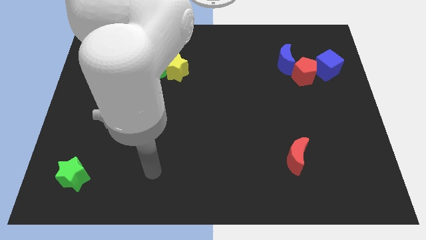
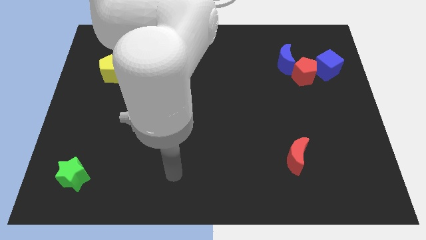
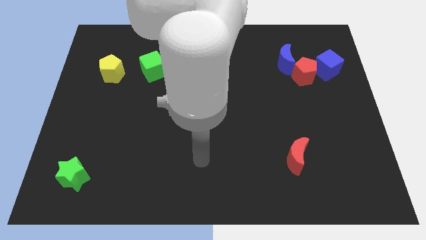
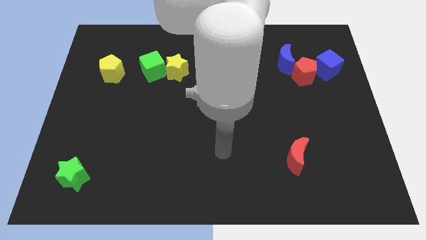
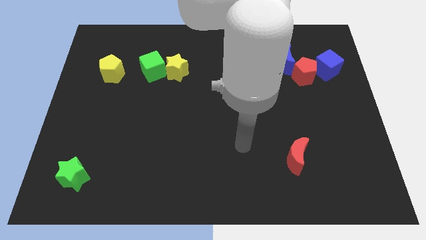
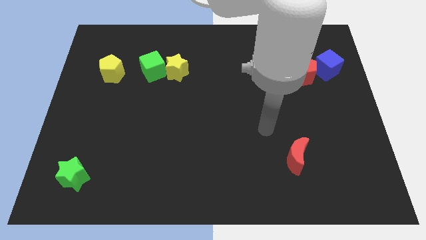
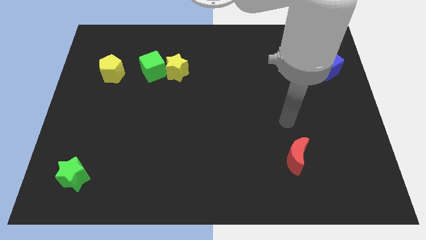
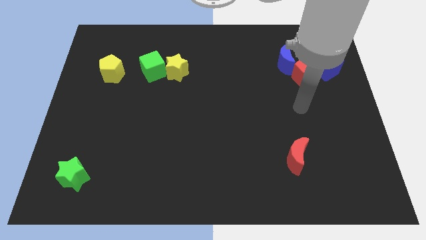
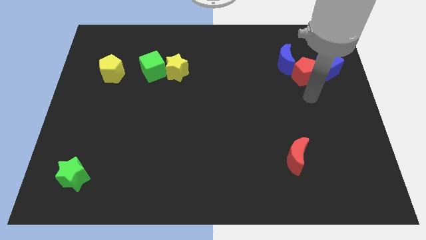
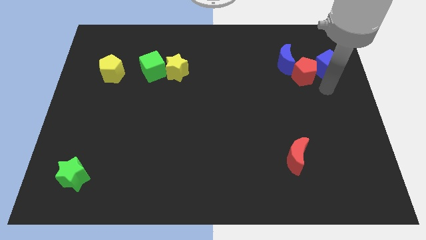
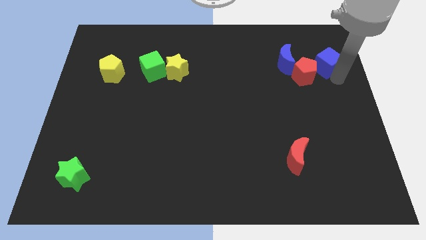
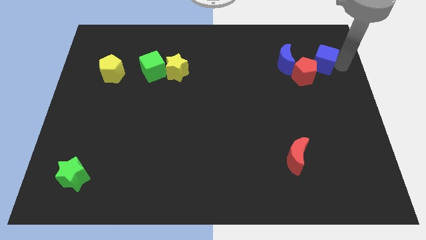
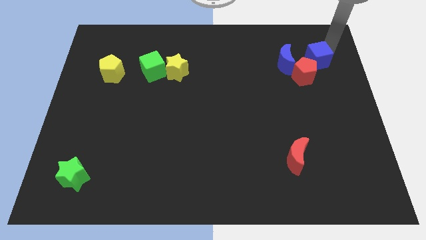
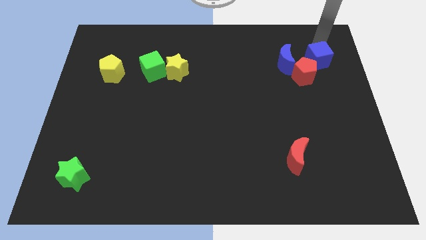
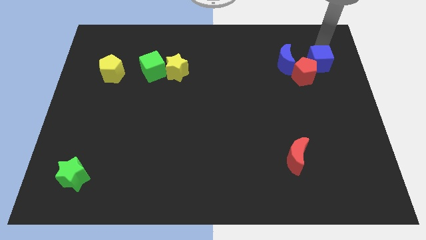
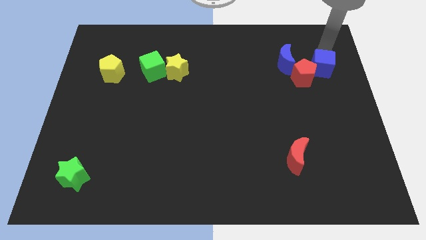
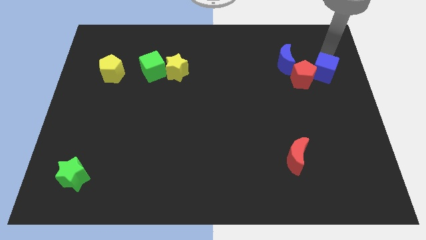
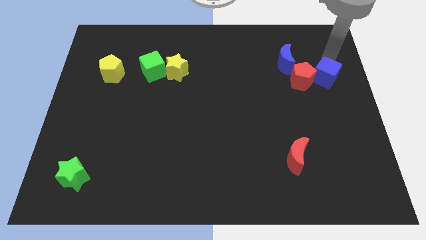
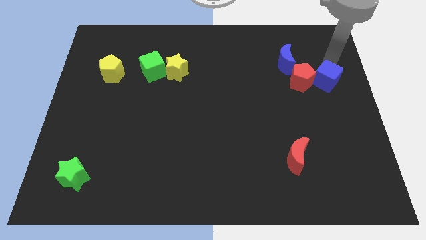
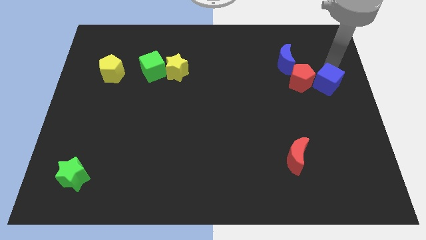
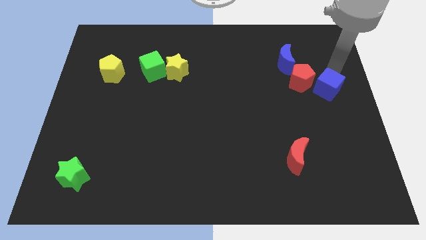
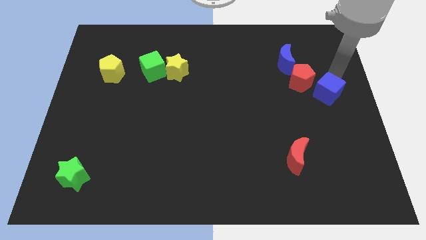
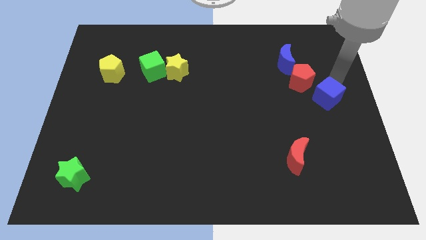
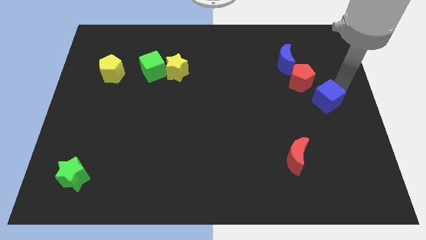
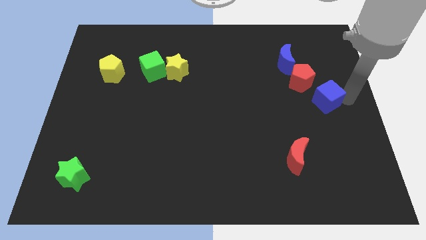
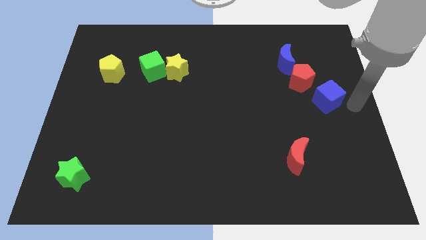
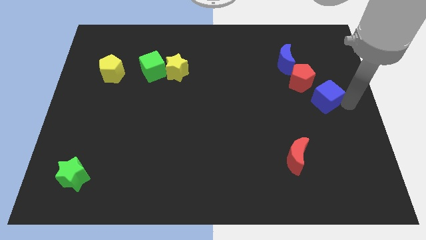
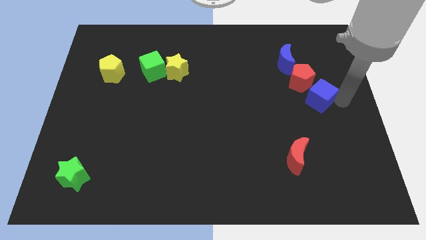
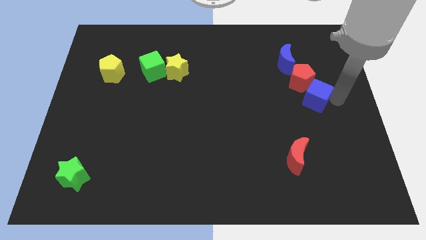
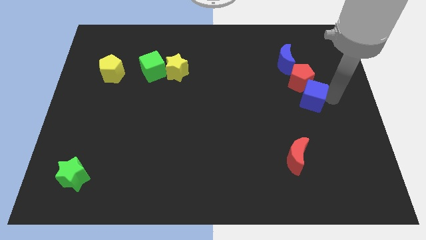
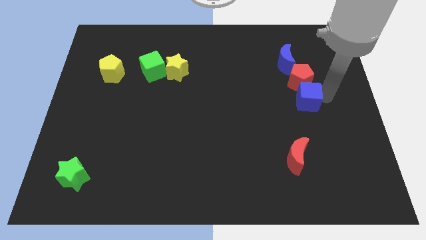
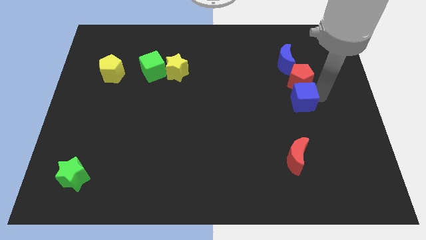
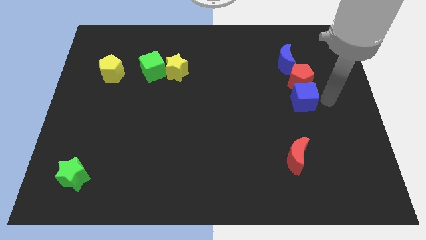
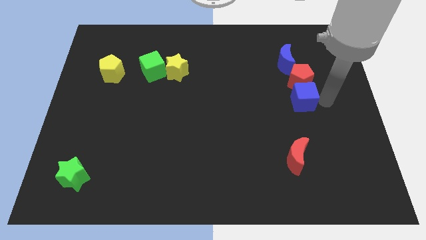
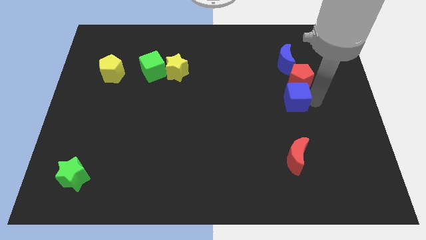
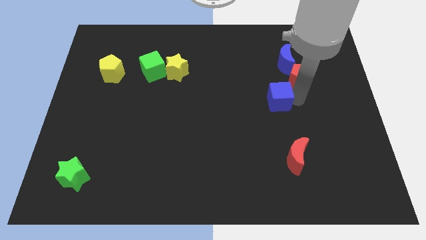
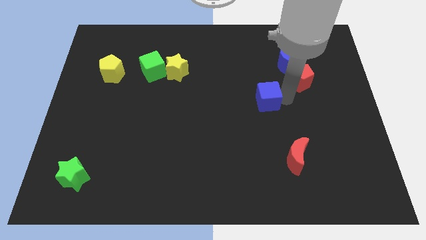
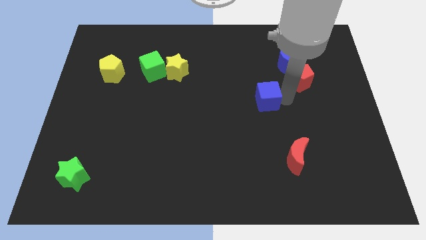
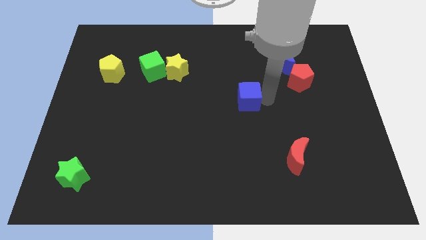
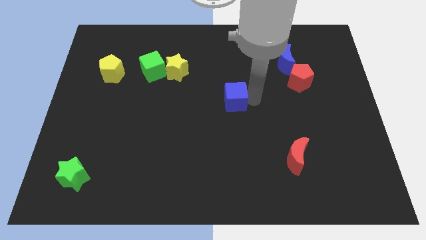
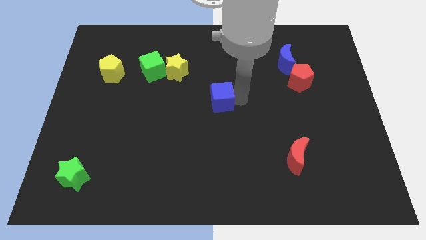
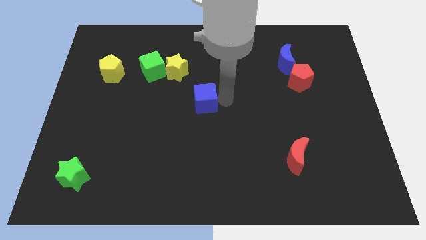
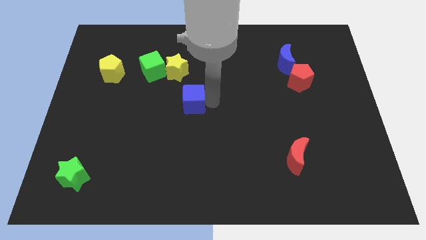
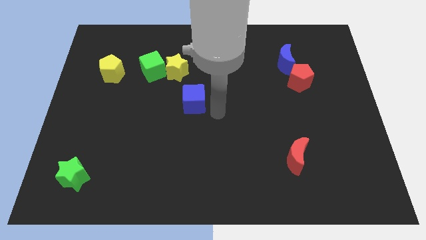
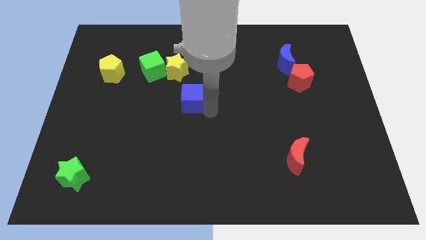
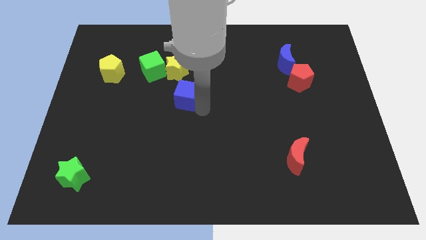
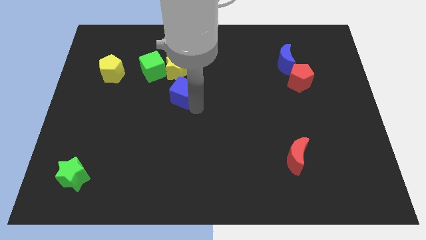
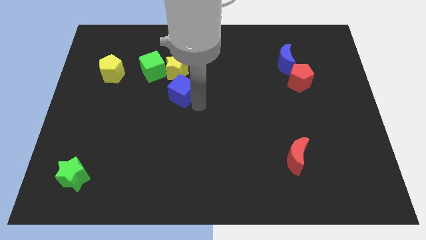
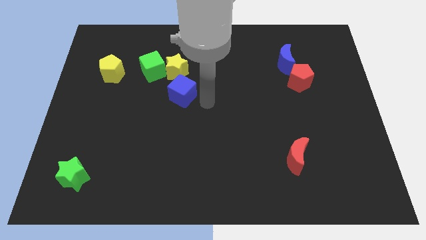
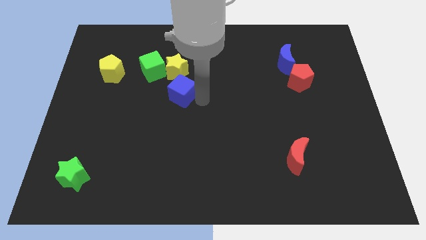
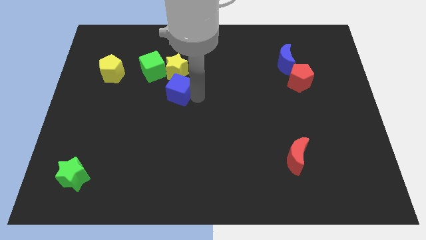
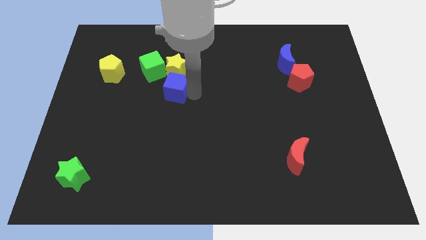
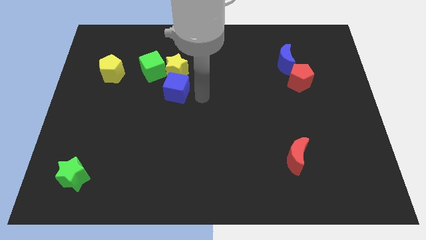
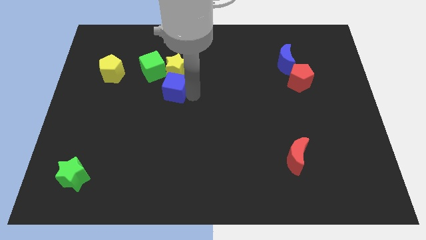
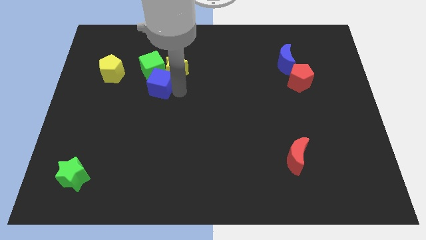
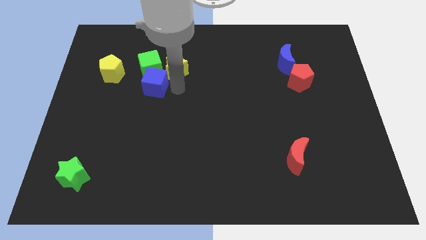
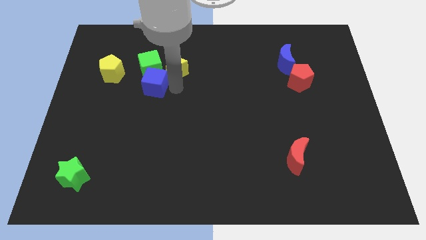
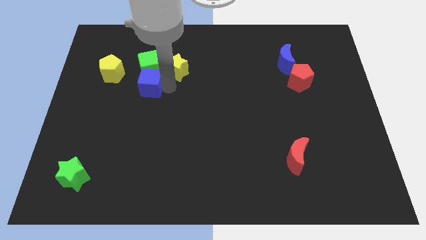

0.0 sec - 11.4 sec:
slide the blue cube to the bottom left of the green cube
